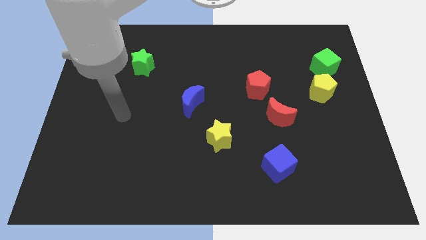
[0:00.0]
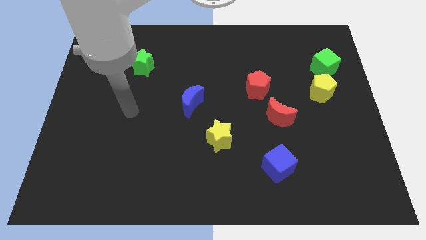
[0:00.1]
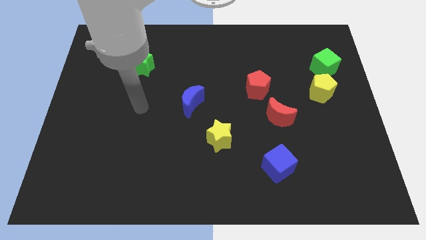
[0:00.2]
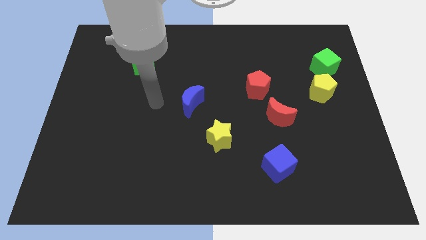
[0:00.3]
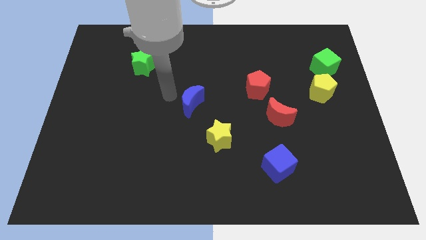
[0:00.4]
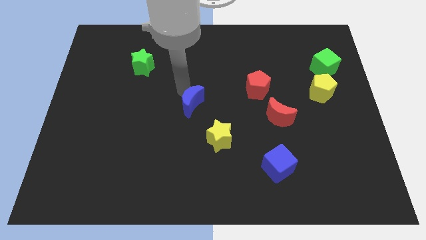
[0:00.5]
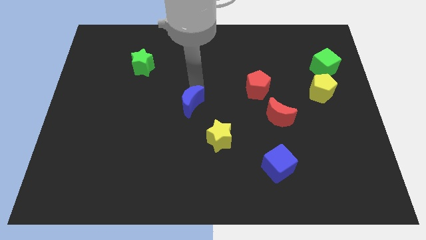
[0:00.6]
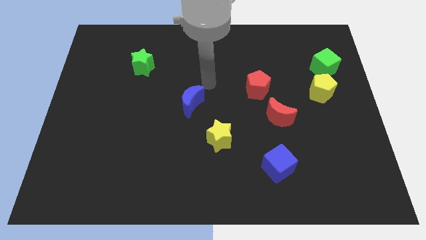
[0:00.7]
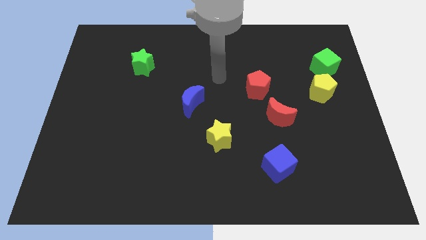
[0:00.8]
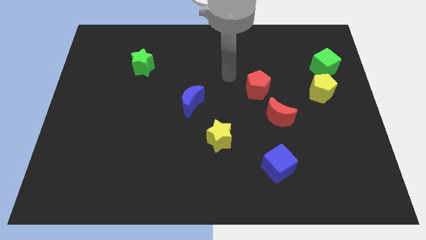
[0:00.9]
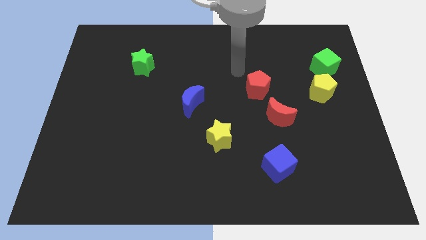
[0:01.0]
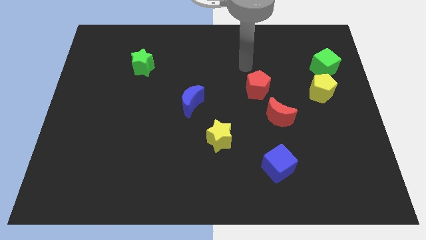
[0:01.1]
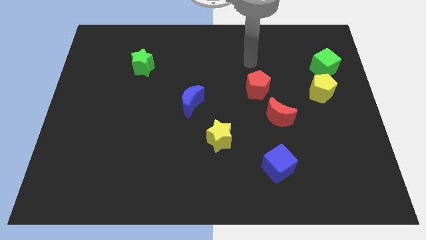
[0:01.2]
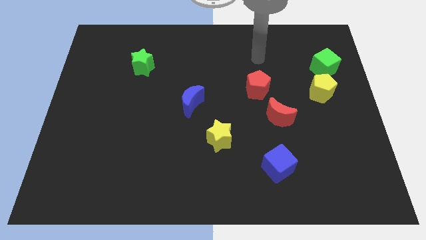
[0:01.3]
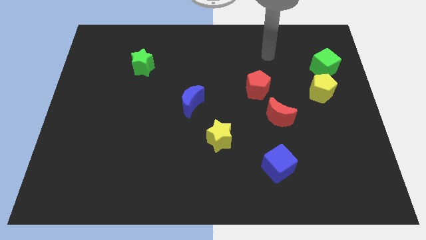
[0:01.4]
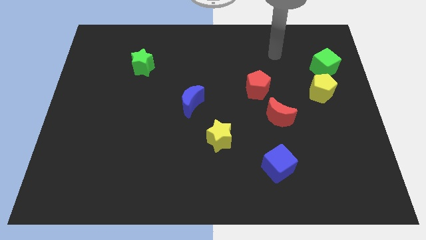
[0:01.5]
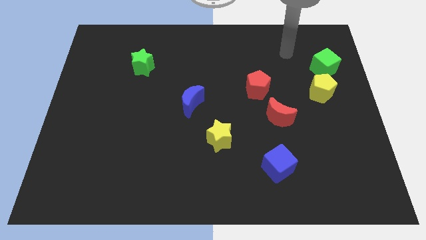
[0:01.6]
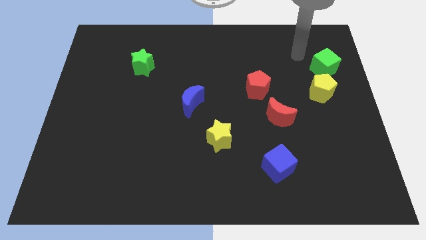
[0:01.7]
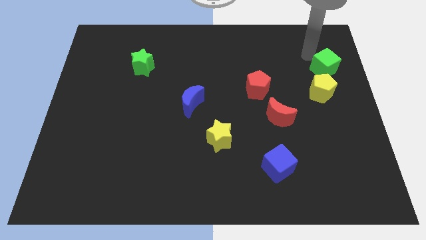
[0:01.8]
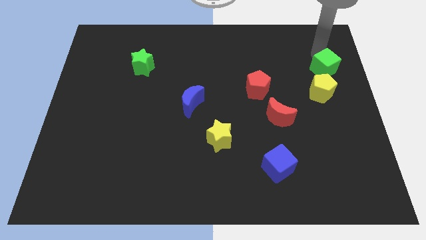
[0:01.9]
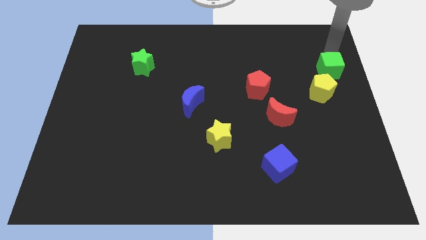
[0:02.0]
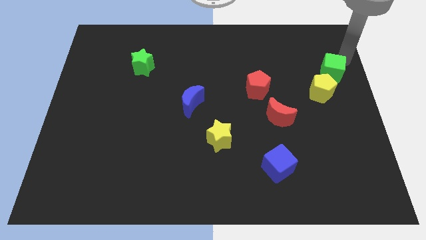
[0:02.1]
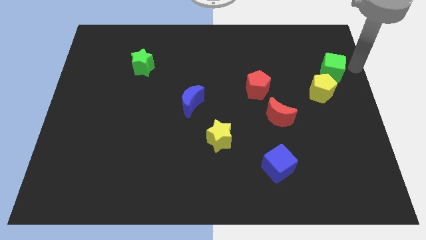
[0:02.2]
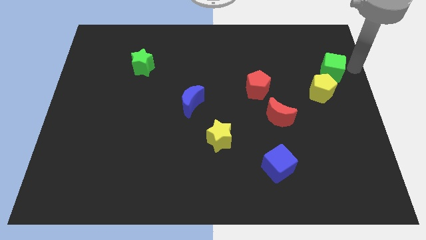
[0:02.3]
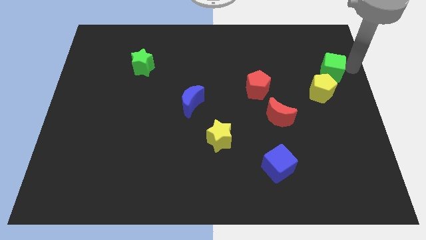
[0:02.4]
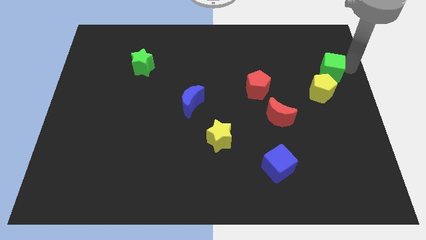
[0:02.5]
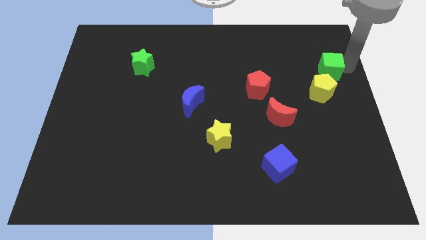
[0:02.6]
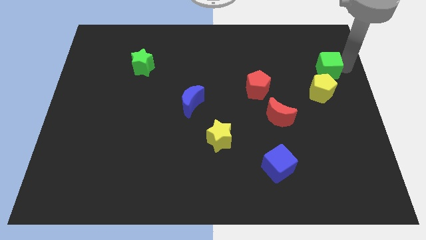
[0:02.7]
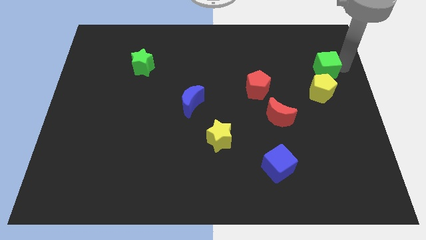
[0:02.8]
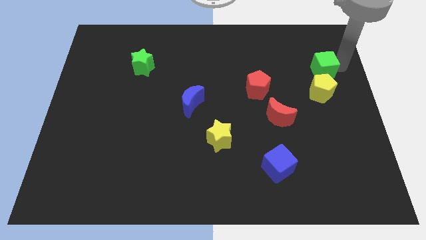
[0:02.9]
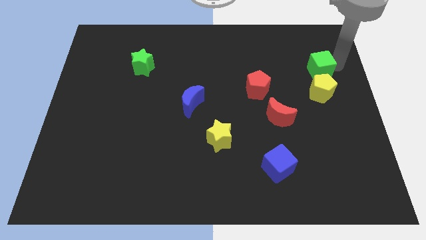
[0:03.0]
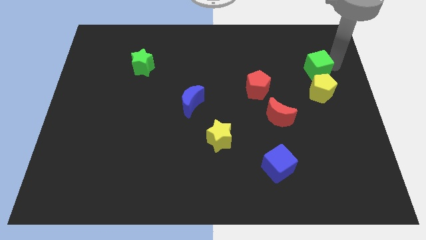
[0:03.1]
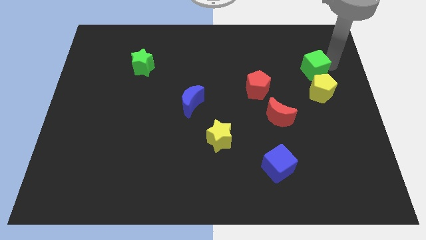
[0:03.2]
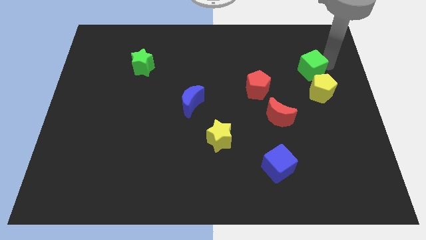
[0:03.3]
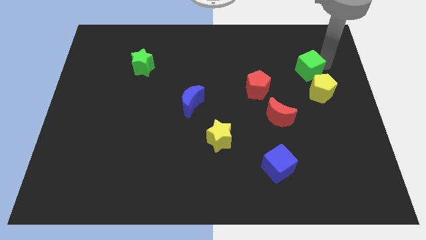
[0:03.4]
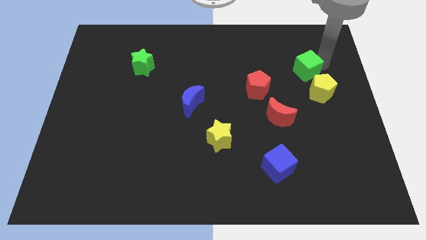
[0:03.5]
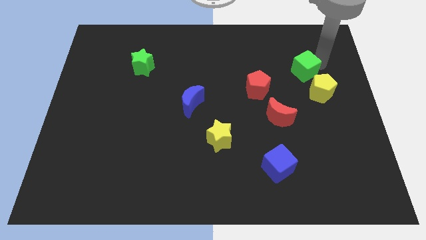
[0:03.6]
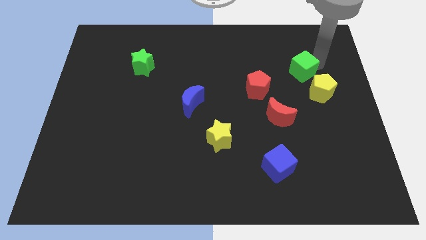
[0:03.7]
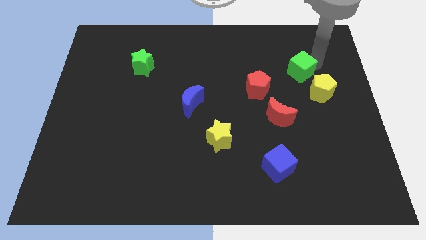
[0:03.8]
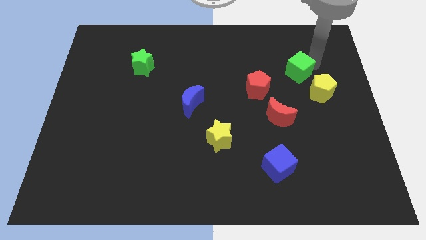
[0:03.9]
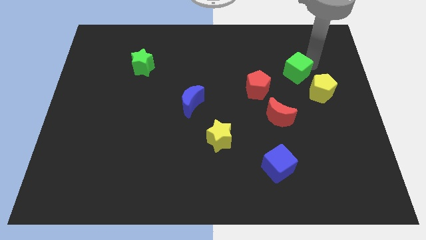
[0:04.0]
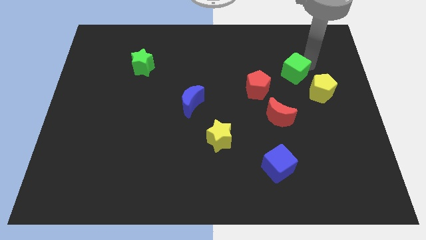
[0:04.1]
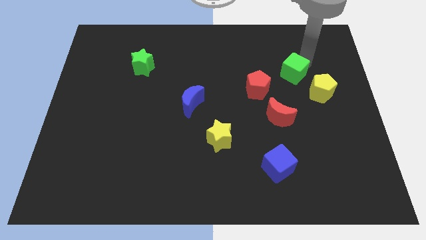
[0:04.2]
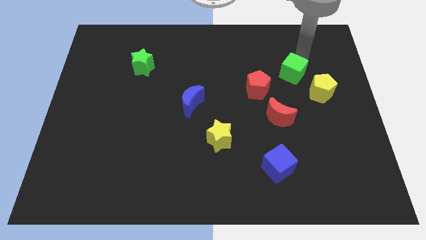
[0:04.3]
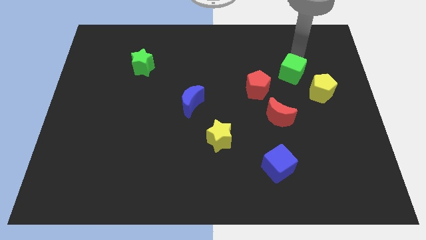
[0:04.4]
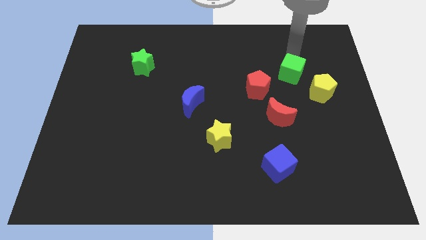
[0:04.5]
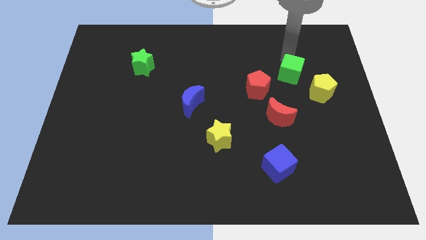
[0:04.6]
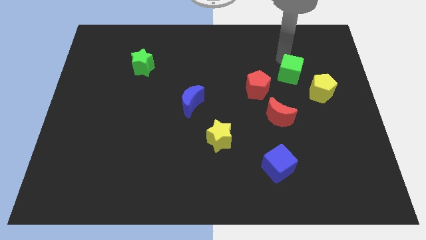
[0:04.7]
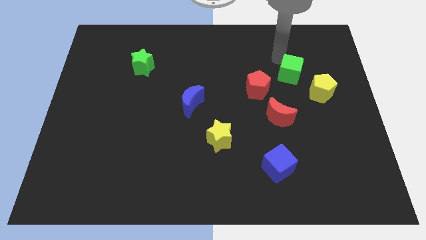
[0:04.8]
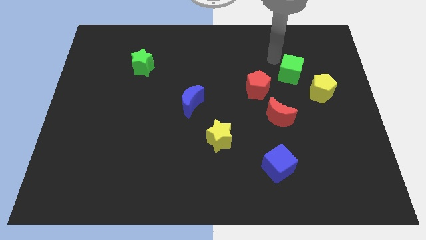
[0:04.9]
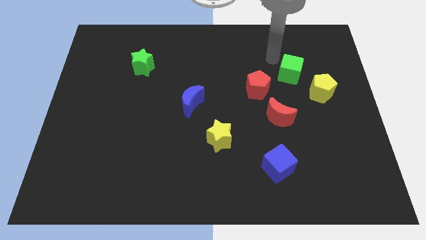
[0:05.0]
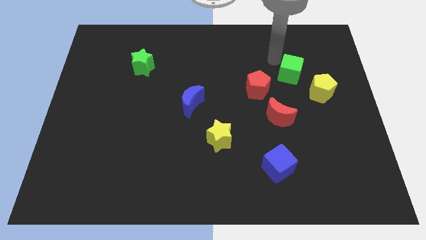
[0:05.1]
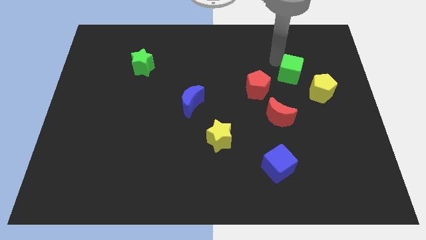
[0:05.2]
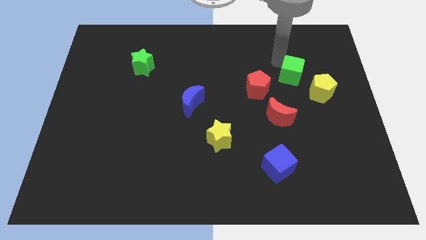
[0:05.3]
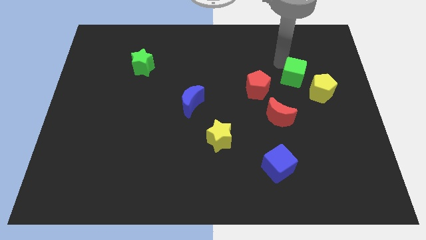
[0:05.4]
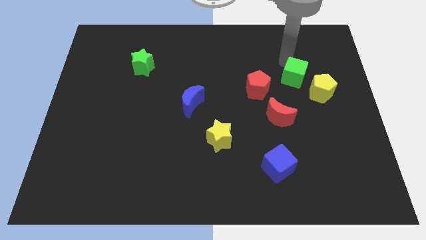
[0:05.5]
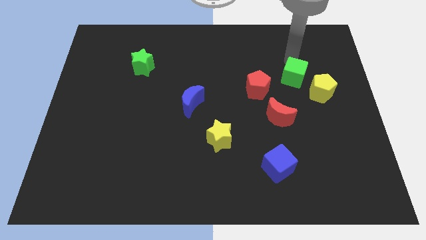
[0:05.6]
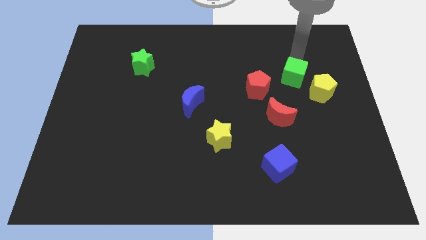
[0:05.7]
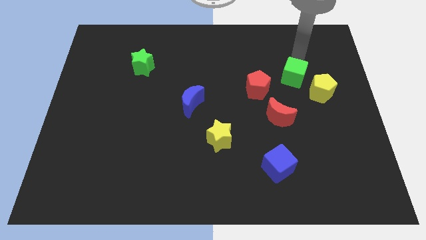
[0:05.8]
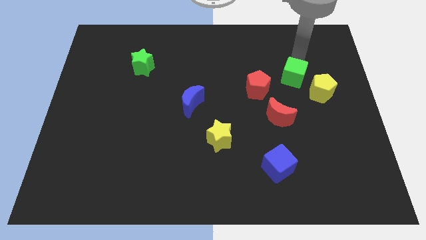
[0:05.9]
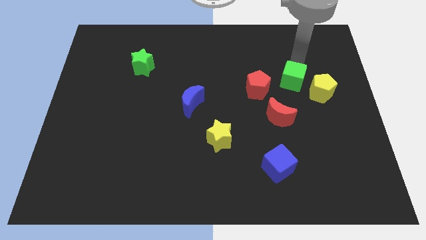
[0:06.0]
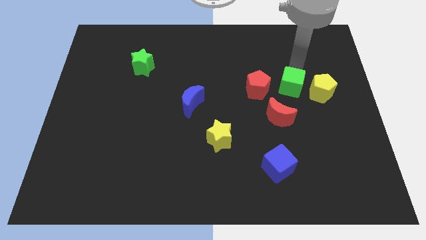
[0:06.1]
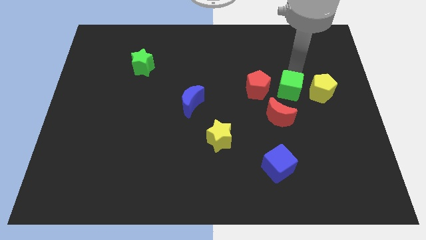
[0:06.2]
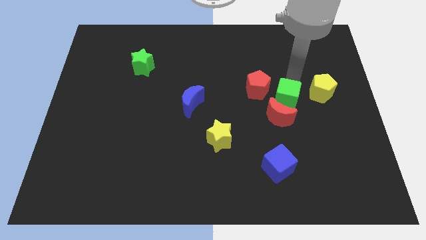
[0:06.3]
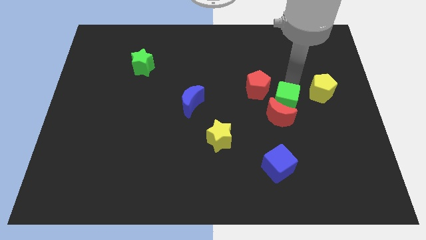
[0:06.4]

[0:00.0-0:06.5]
move the green cube close to the red moon

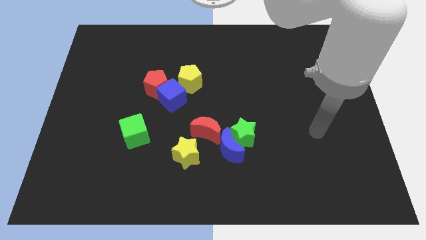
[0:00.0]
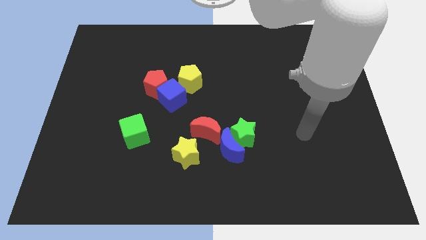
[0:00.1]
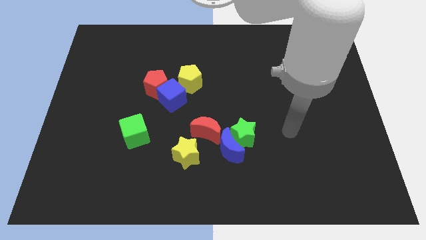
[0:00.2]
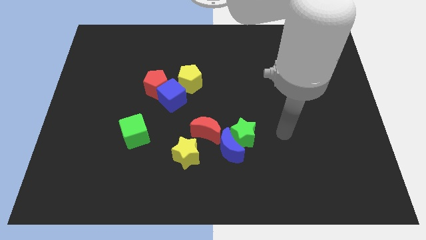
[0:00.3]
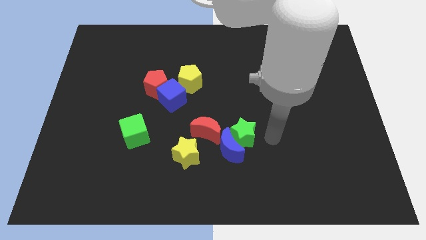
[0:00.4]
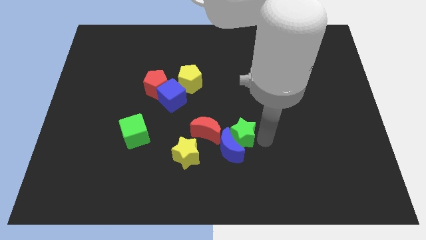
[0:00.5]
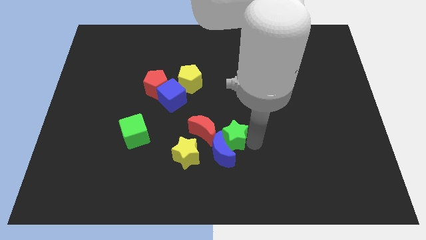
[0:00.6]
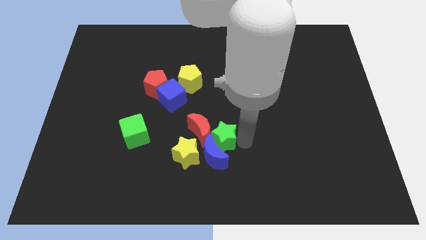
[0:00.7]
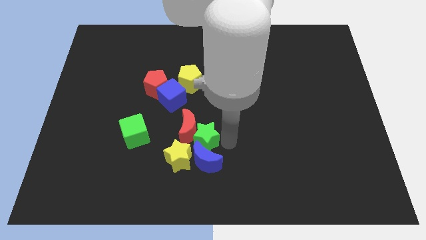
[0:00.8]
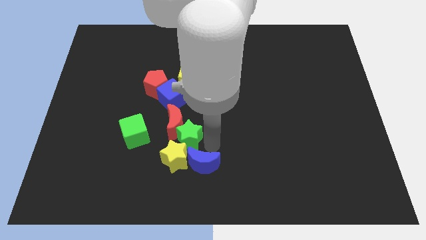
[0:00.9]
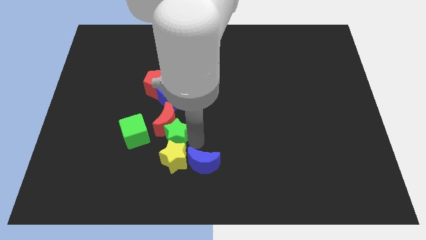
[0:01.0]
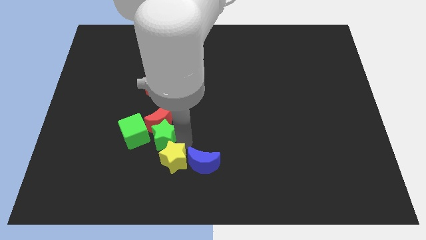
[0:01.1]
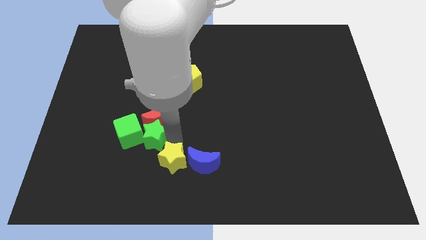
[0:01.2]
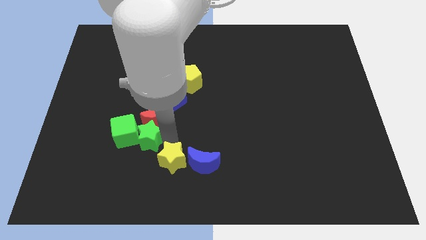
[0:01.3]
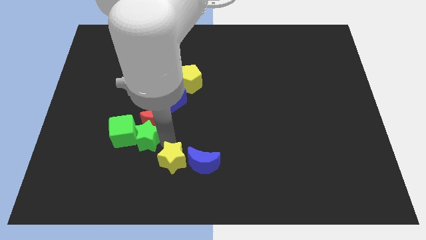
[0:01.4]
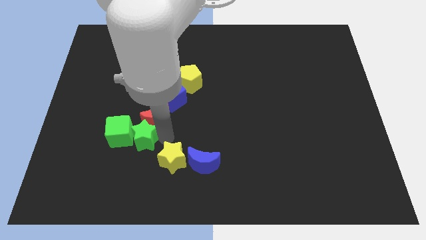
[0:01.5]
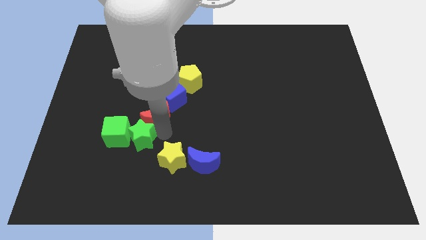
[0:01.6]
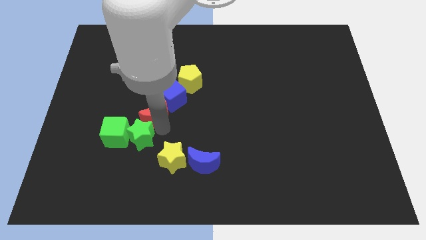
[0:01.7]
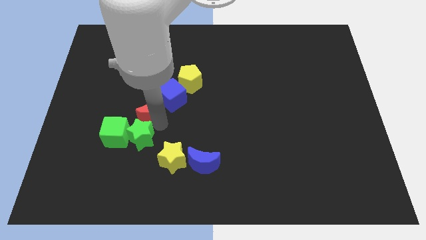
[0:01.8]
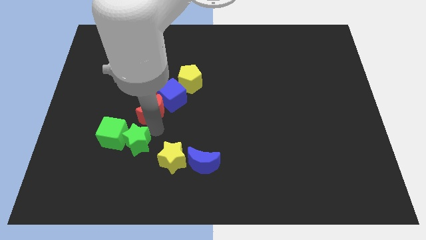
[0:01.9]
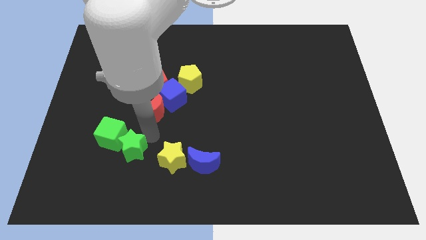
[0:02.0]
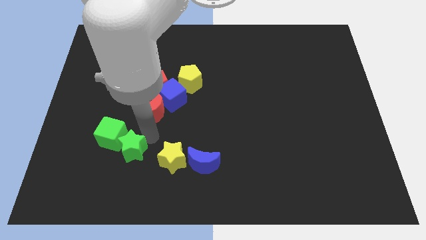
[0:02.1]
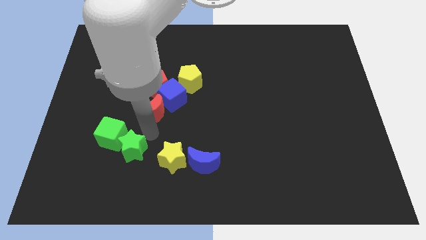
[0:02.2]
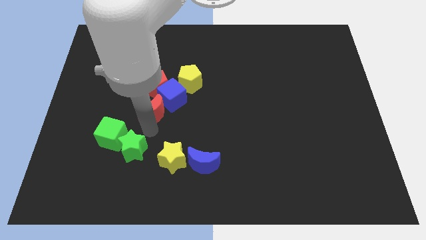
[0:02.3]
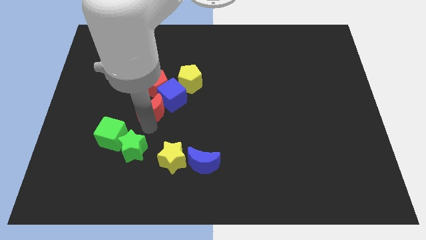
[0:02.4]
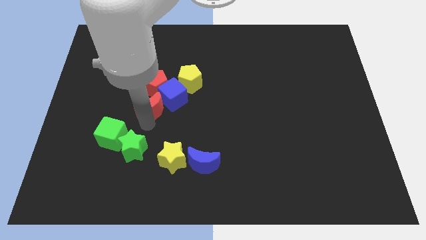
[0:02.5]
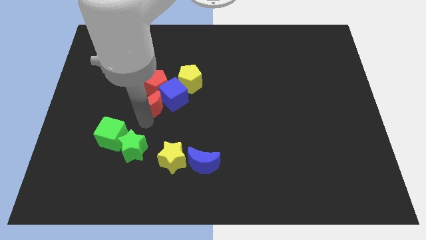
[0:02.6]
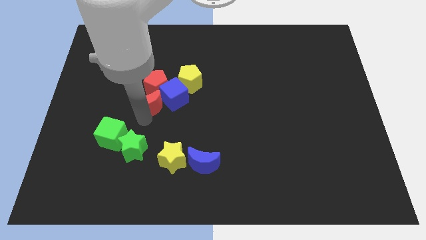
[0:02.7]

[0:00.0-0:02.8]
move the red moon next to the red pentagon
